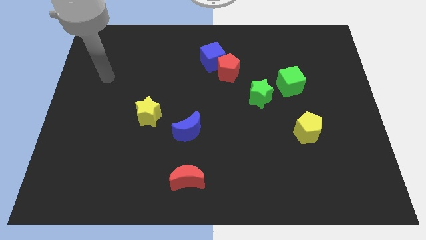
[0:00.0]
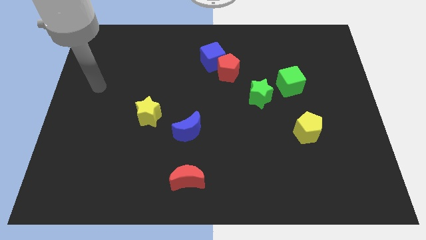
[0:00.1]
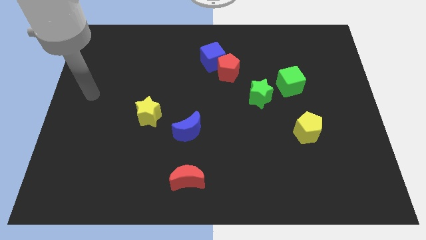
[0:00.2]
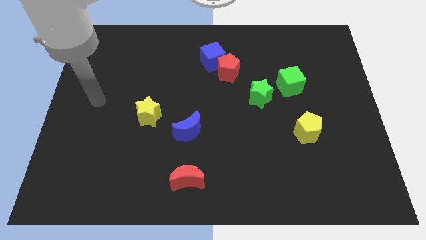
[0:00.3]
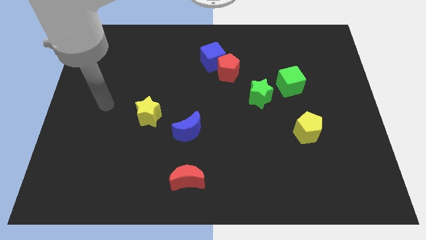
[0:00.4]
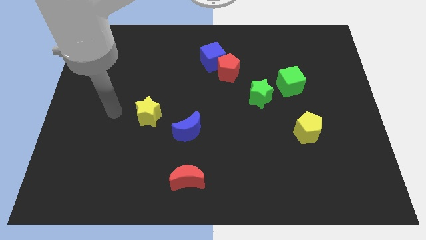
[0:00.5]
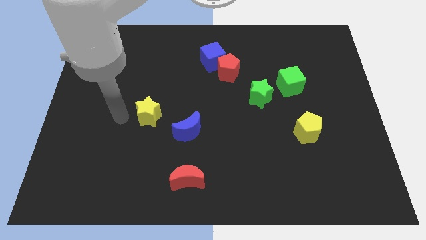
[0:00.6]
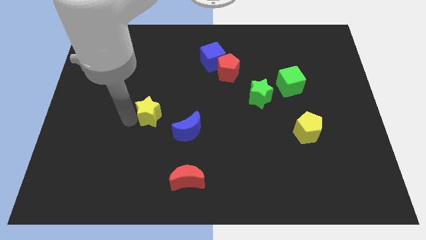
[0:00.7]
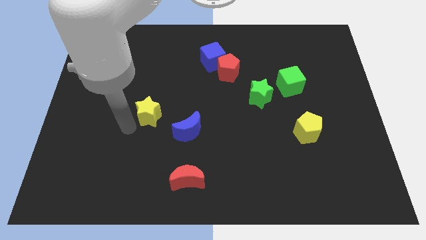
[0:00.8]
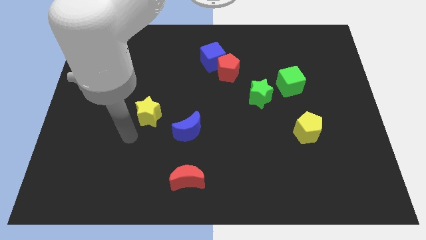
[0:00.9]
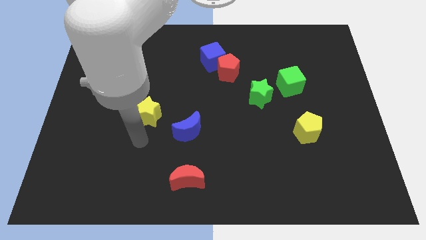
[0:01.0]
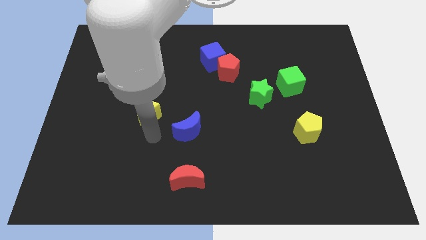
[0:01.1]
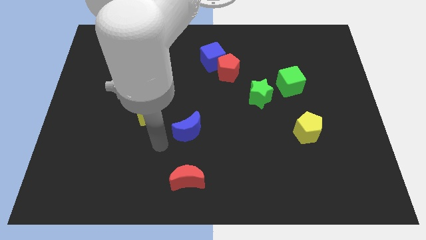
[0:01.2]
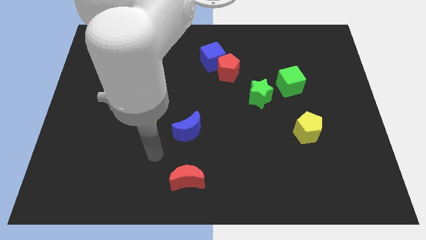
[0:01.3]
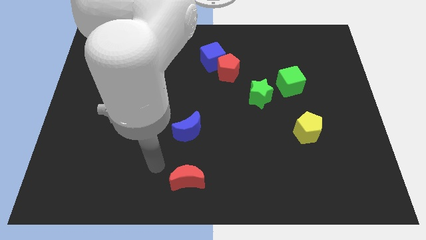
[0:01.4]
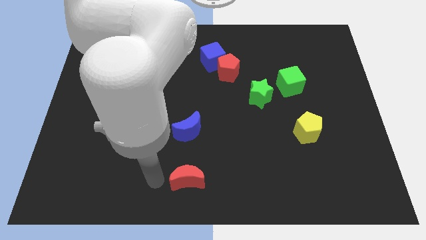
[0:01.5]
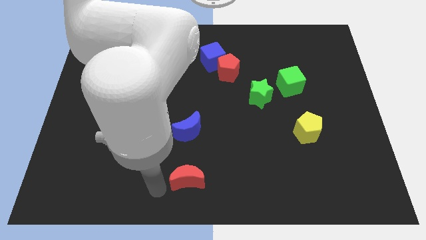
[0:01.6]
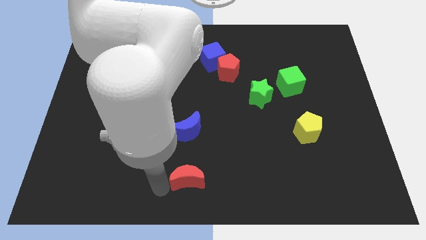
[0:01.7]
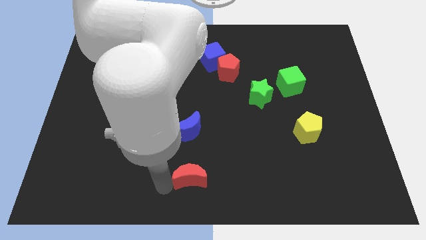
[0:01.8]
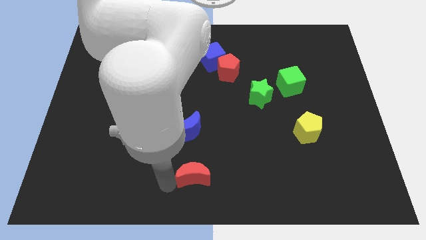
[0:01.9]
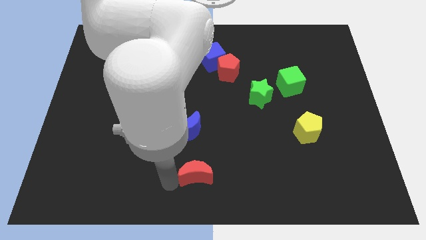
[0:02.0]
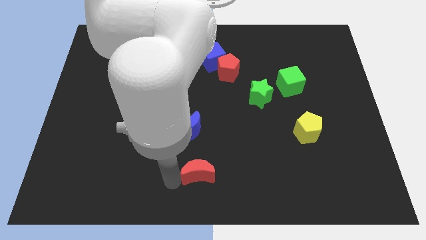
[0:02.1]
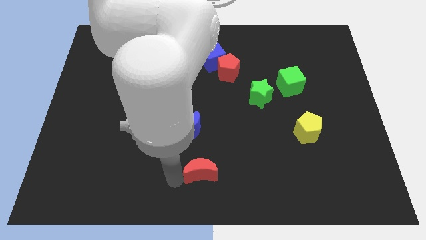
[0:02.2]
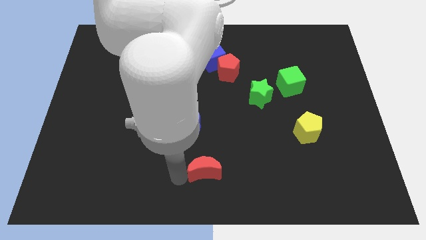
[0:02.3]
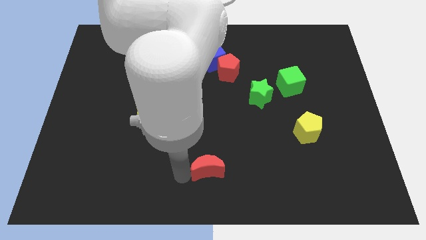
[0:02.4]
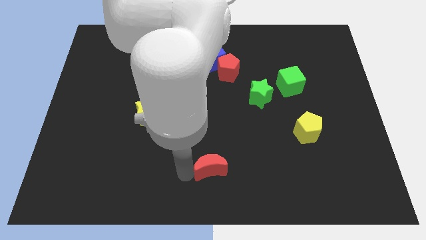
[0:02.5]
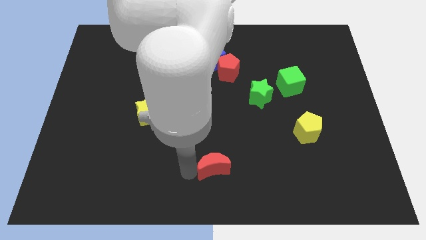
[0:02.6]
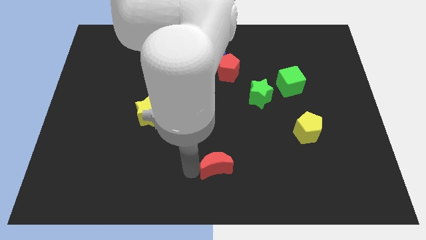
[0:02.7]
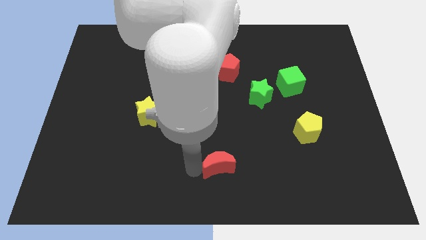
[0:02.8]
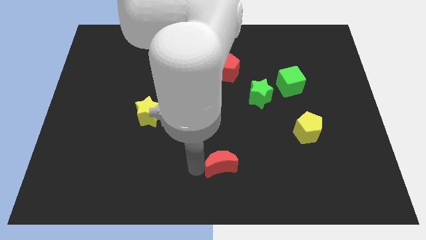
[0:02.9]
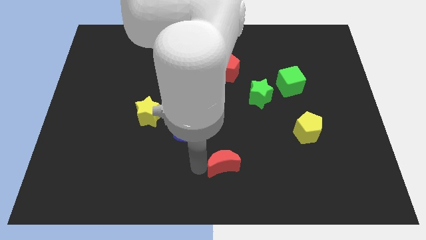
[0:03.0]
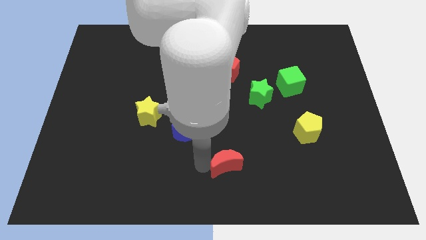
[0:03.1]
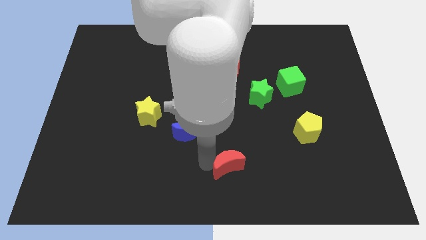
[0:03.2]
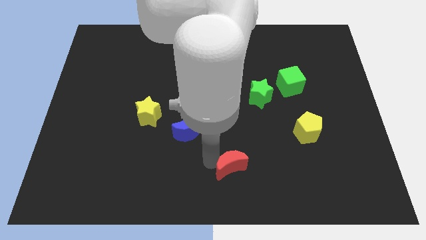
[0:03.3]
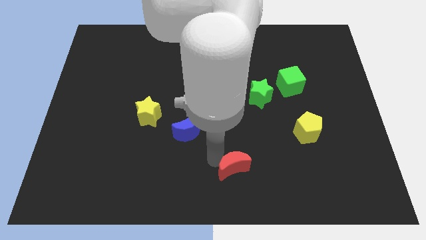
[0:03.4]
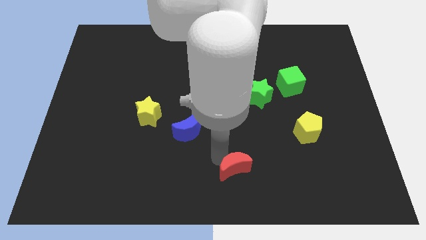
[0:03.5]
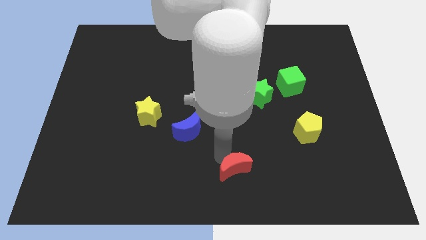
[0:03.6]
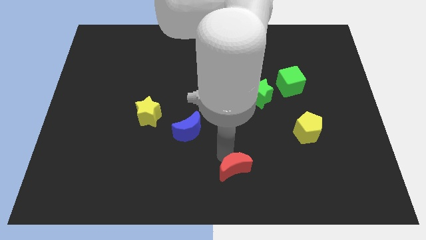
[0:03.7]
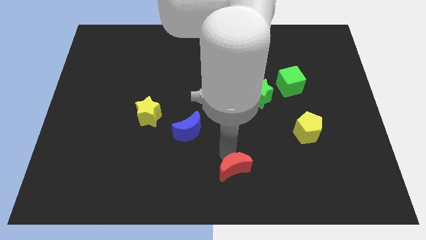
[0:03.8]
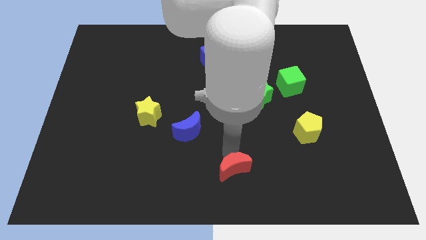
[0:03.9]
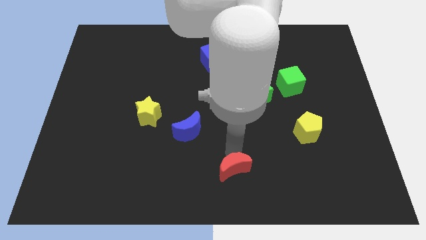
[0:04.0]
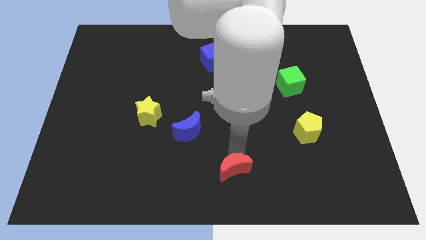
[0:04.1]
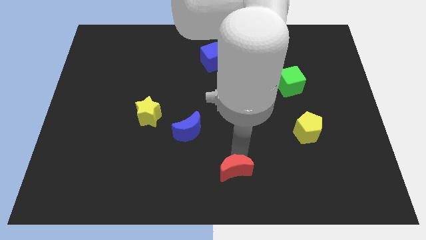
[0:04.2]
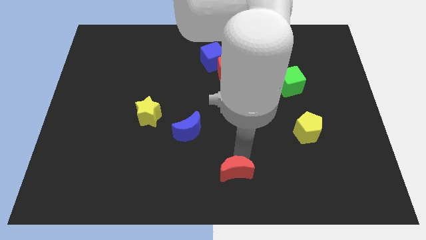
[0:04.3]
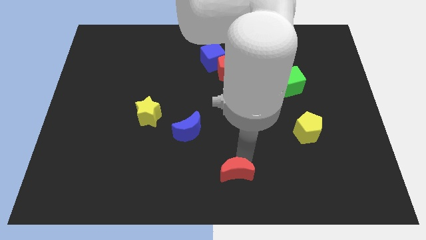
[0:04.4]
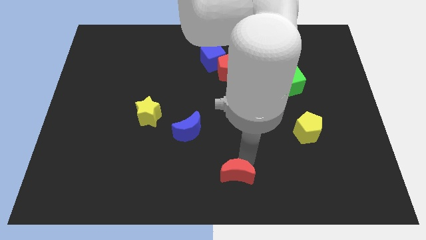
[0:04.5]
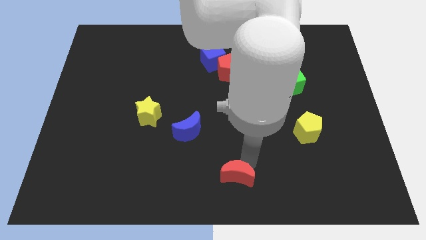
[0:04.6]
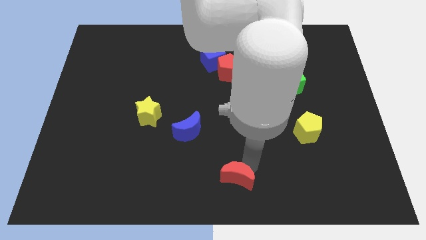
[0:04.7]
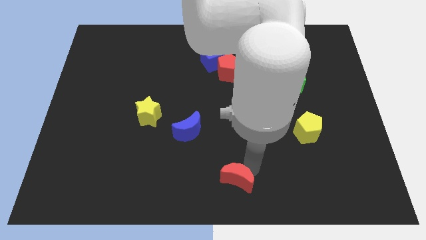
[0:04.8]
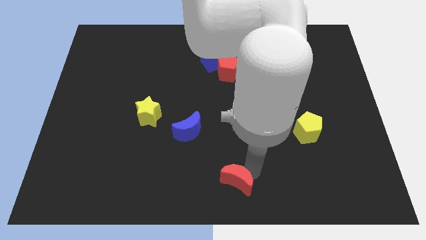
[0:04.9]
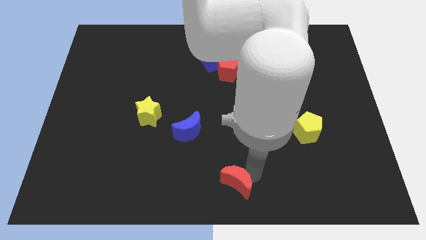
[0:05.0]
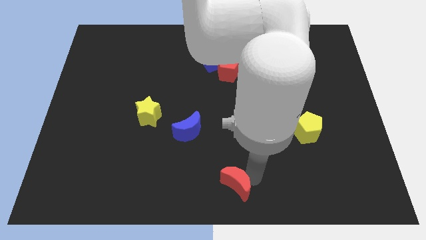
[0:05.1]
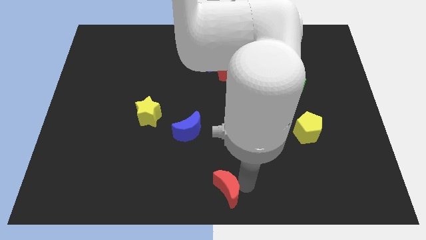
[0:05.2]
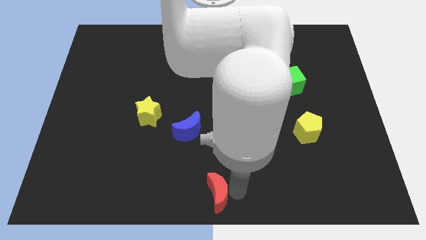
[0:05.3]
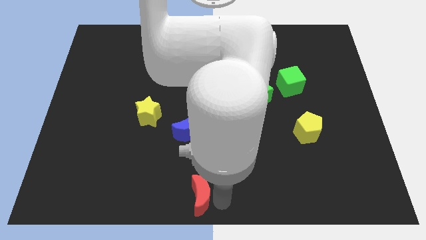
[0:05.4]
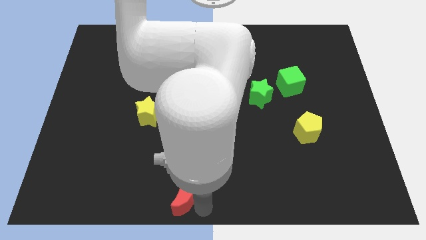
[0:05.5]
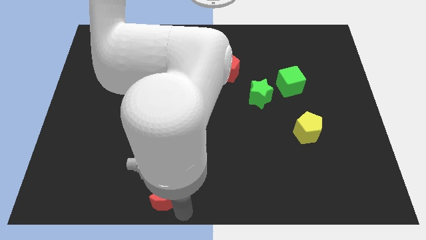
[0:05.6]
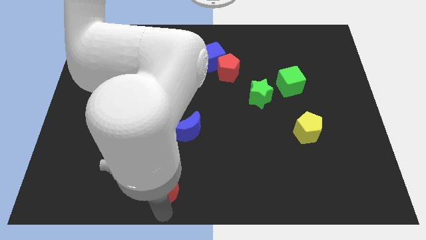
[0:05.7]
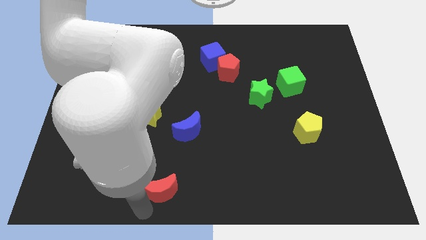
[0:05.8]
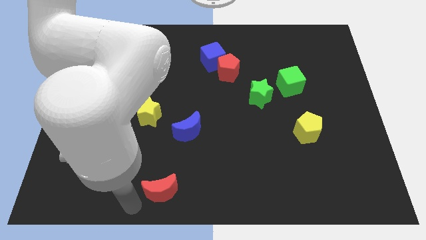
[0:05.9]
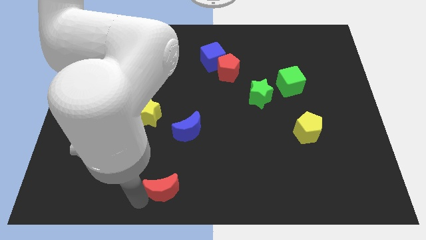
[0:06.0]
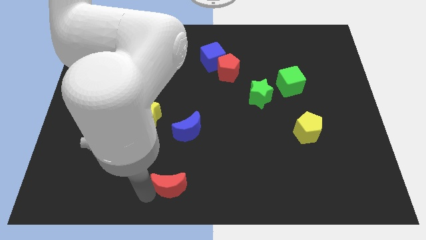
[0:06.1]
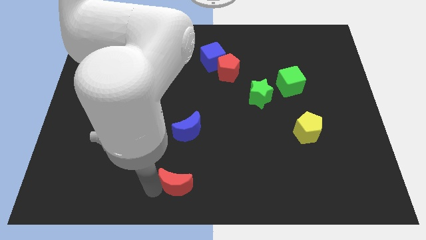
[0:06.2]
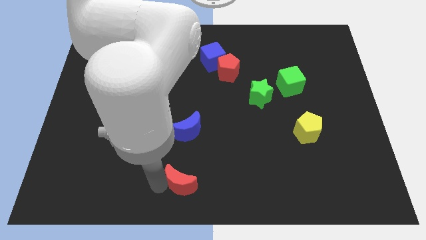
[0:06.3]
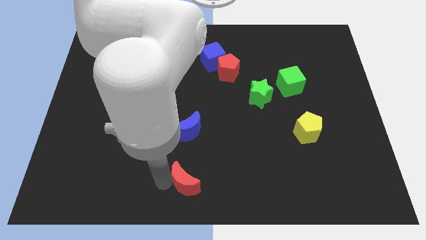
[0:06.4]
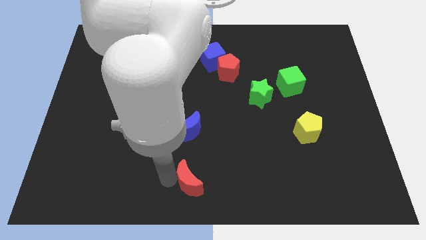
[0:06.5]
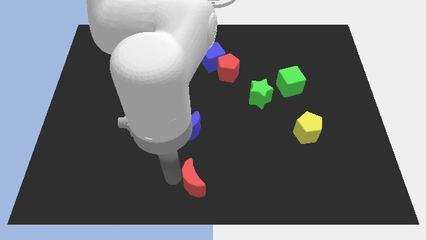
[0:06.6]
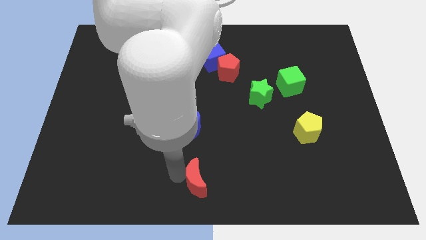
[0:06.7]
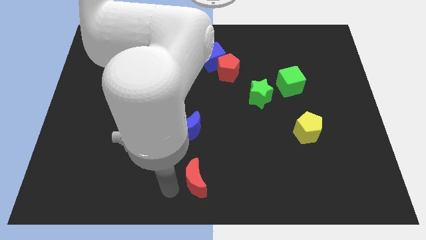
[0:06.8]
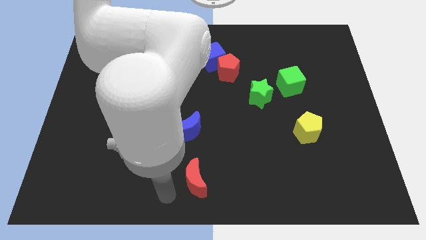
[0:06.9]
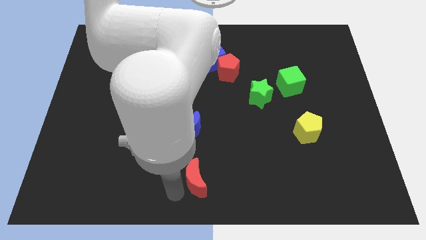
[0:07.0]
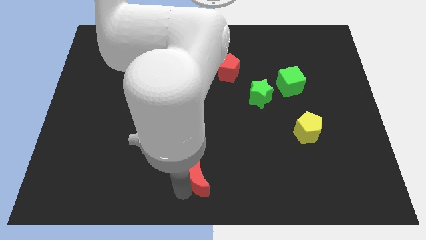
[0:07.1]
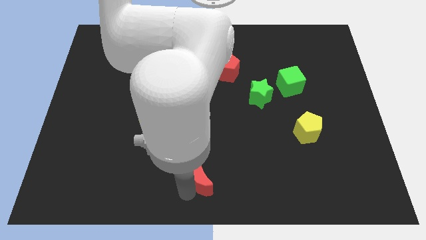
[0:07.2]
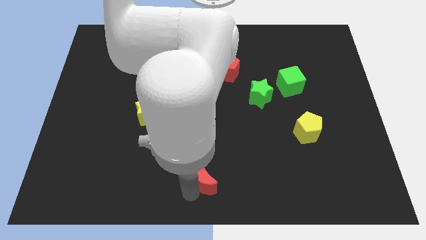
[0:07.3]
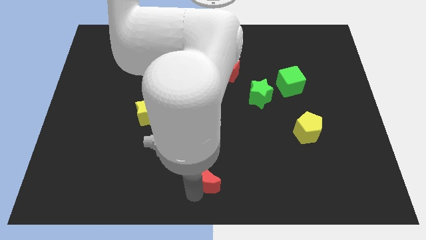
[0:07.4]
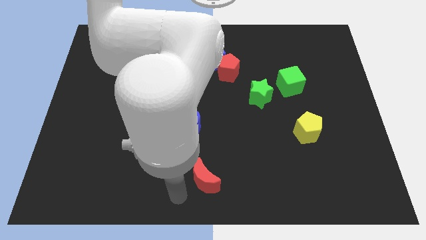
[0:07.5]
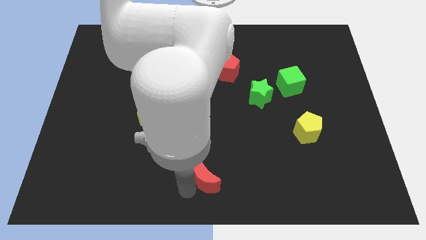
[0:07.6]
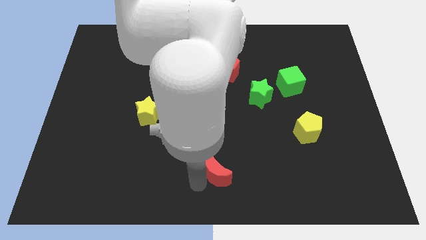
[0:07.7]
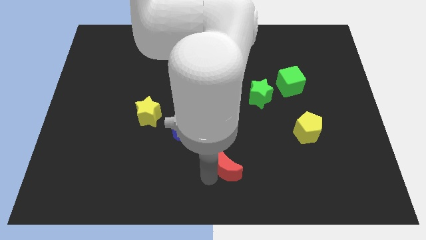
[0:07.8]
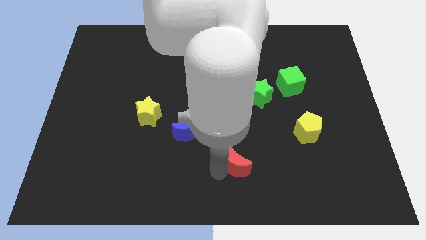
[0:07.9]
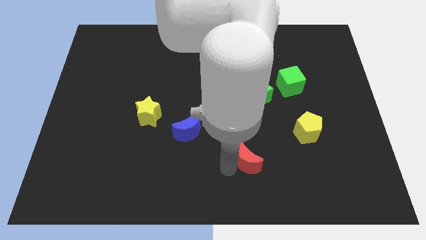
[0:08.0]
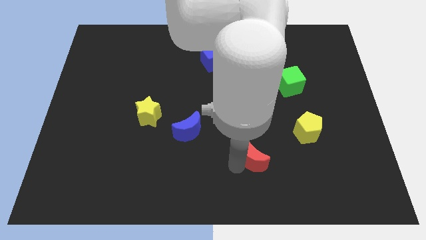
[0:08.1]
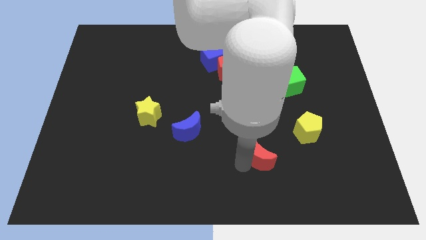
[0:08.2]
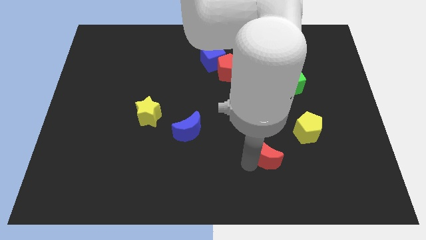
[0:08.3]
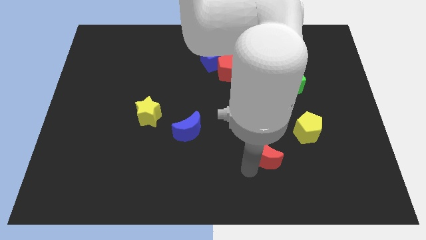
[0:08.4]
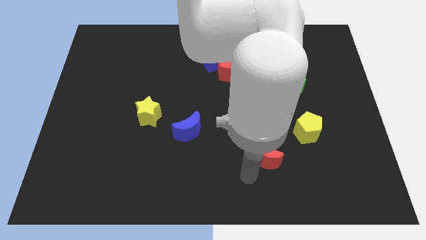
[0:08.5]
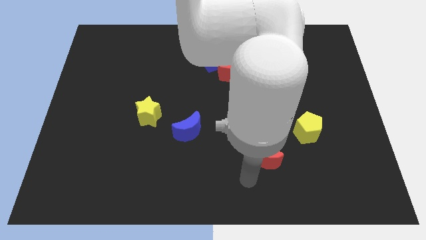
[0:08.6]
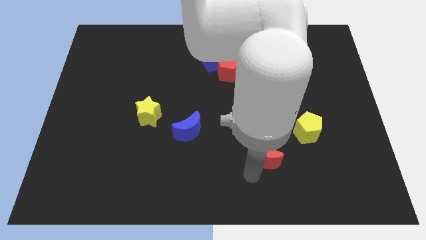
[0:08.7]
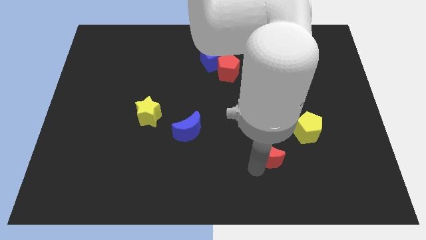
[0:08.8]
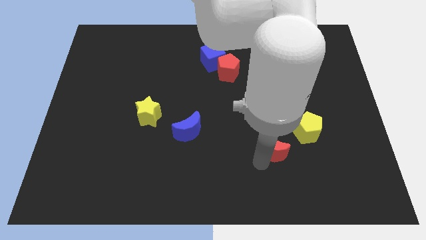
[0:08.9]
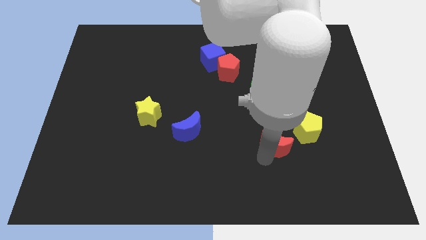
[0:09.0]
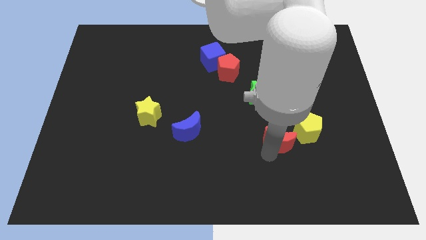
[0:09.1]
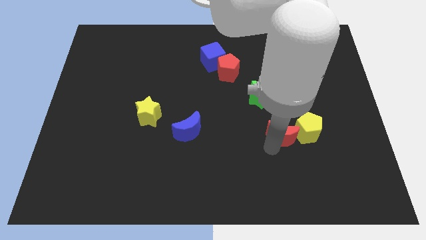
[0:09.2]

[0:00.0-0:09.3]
push the red moon to the yellow pentagon
